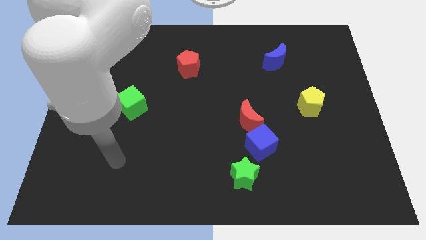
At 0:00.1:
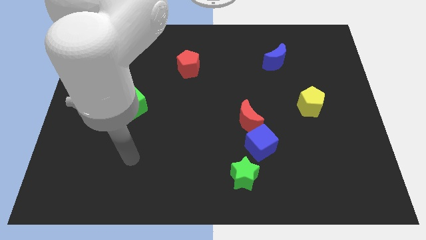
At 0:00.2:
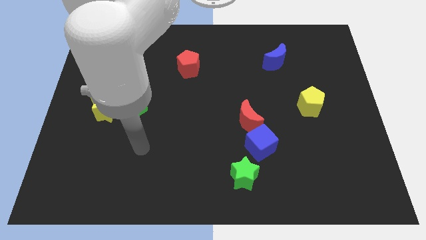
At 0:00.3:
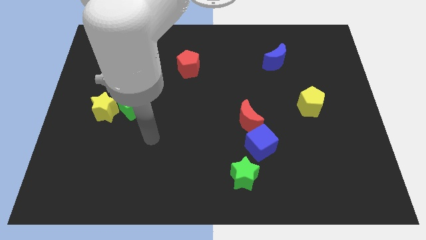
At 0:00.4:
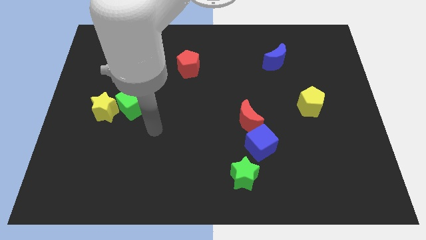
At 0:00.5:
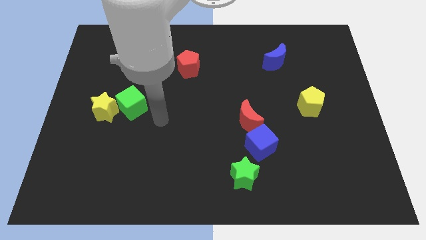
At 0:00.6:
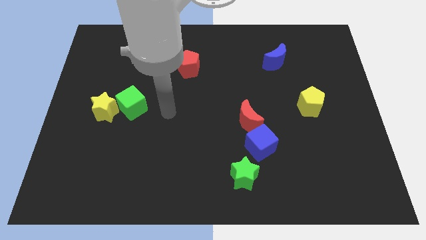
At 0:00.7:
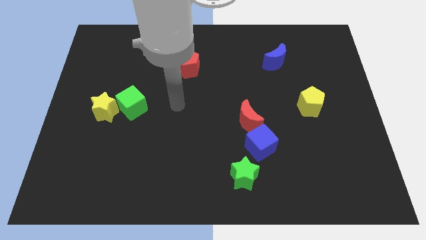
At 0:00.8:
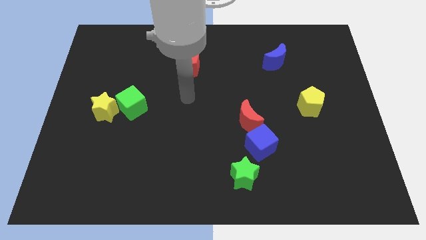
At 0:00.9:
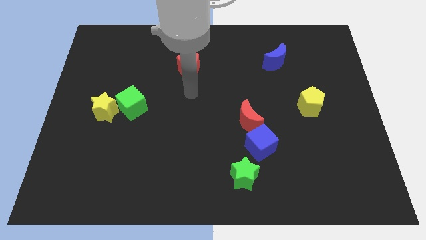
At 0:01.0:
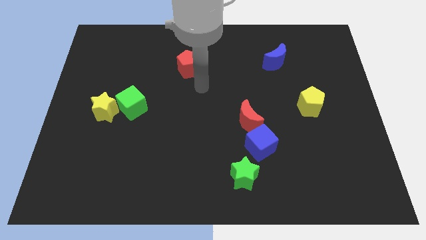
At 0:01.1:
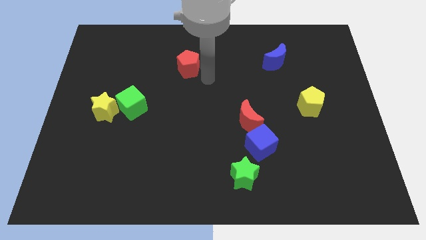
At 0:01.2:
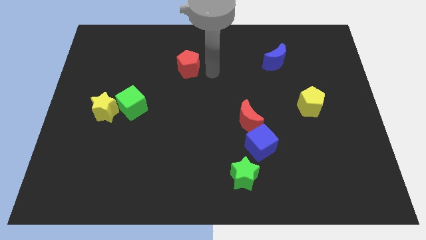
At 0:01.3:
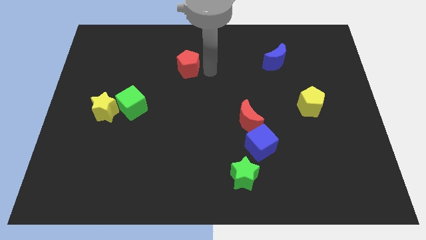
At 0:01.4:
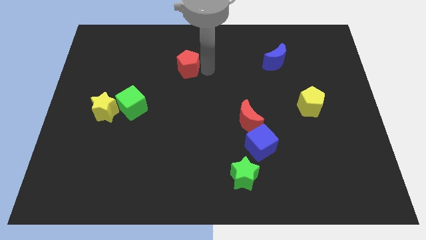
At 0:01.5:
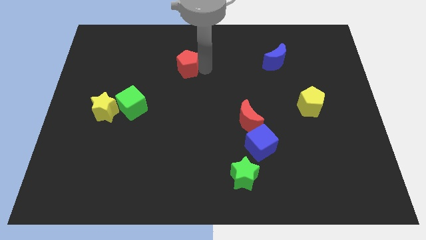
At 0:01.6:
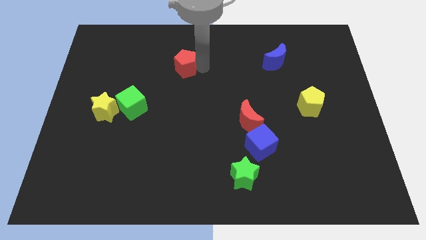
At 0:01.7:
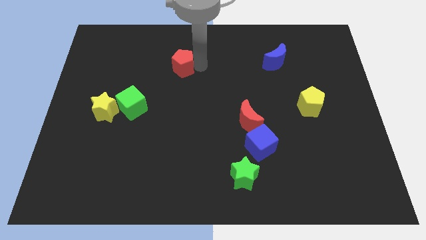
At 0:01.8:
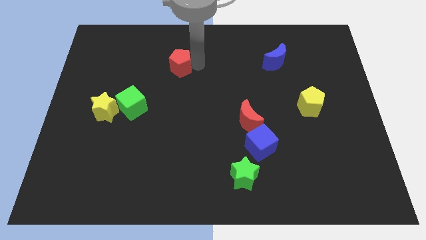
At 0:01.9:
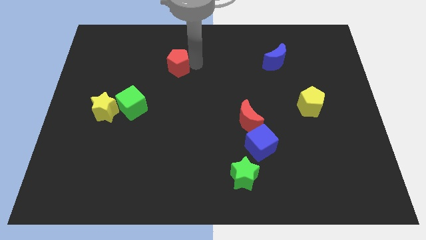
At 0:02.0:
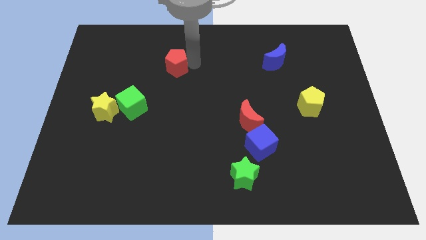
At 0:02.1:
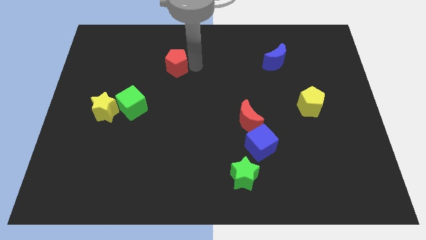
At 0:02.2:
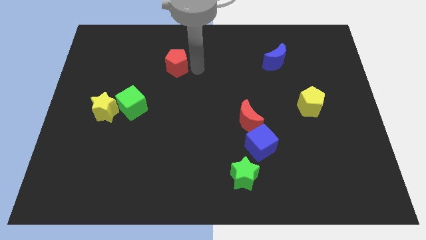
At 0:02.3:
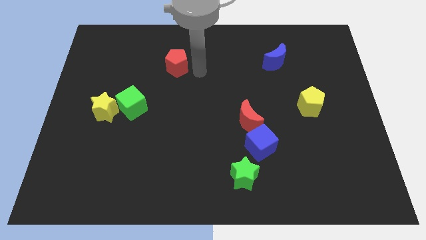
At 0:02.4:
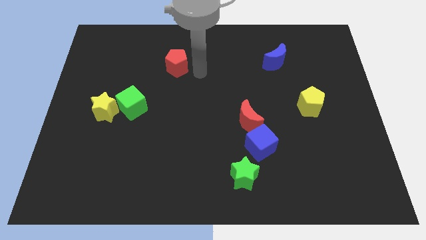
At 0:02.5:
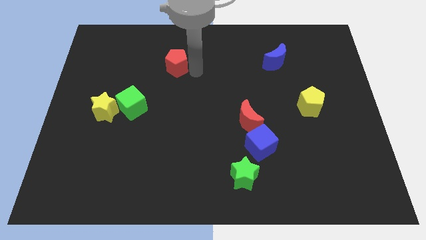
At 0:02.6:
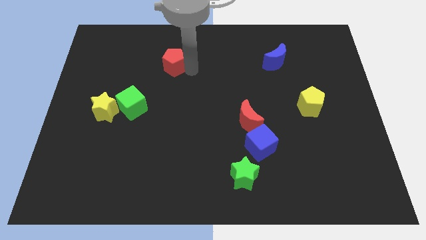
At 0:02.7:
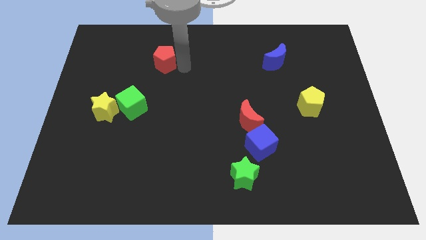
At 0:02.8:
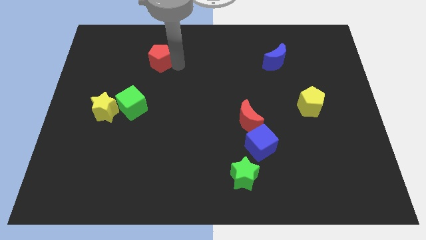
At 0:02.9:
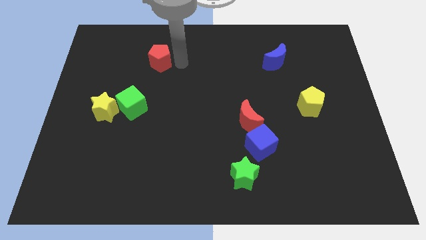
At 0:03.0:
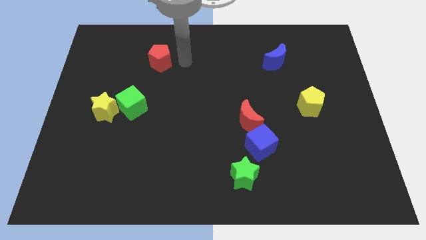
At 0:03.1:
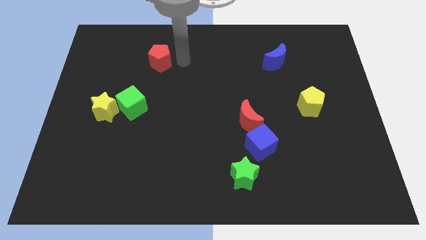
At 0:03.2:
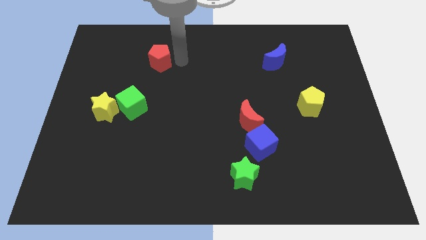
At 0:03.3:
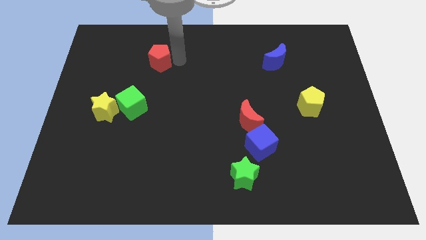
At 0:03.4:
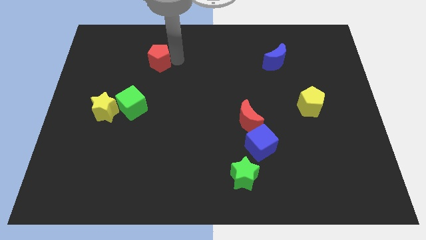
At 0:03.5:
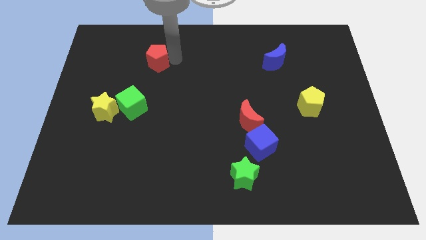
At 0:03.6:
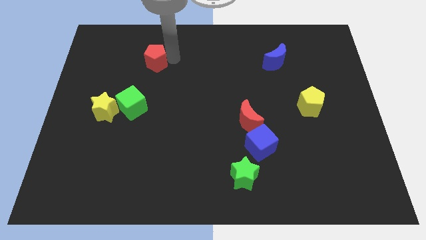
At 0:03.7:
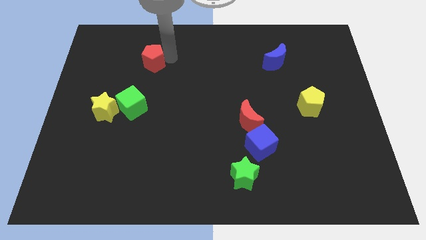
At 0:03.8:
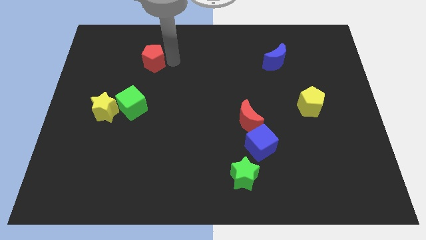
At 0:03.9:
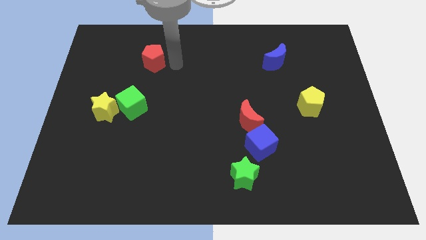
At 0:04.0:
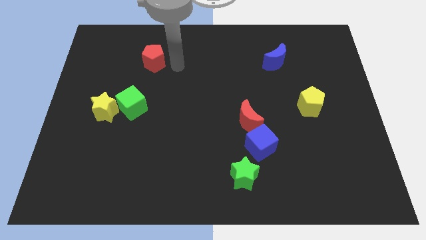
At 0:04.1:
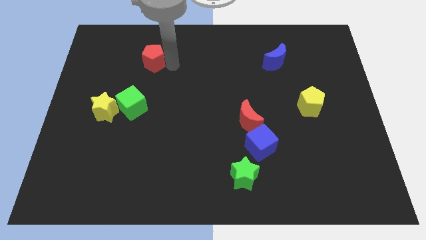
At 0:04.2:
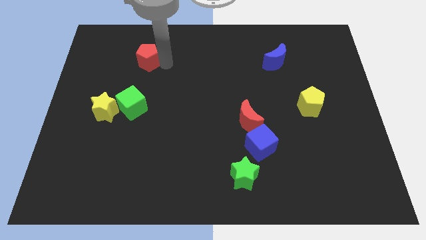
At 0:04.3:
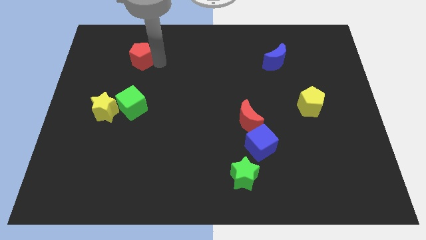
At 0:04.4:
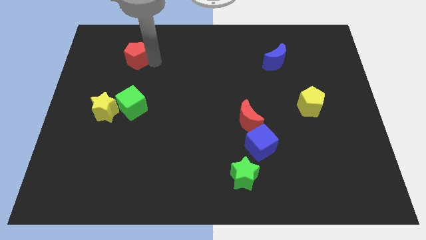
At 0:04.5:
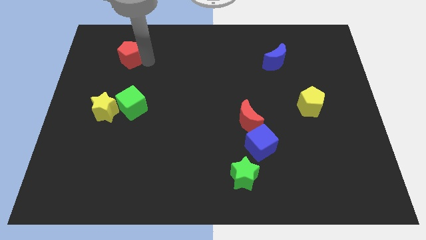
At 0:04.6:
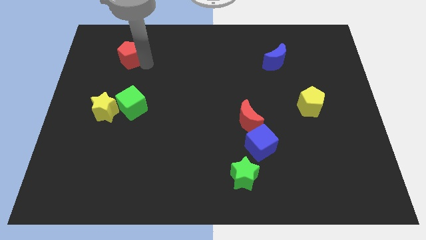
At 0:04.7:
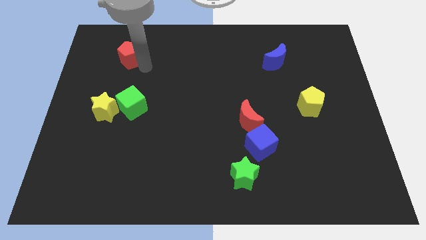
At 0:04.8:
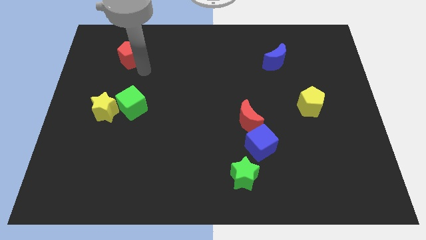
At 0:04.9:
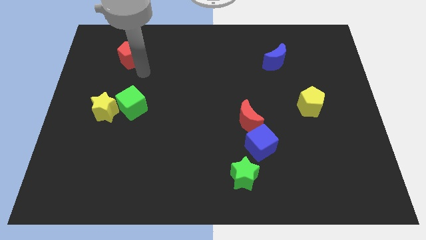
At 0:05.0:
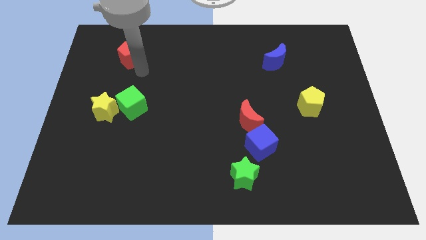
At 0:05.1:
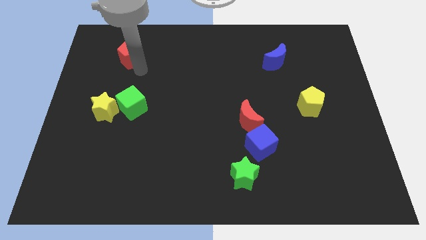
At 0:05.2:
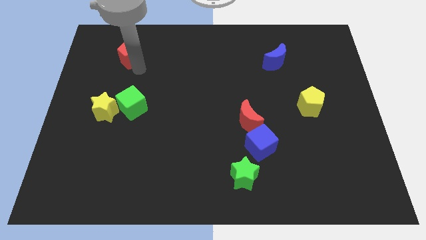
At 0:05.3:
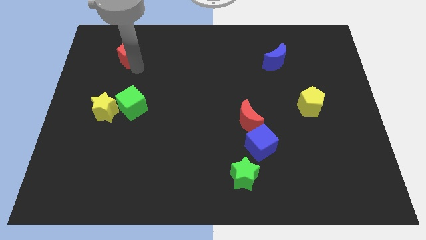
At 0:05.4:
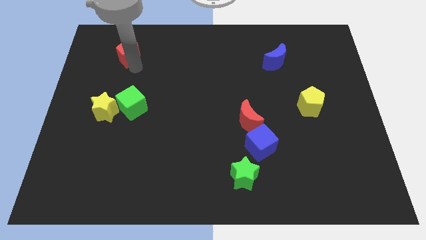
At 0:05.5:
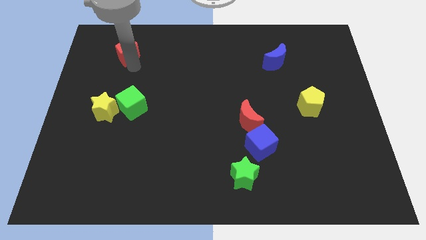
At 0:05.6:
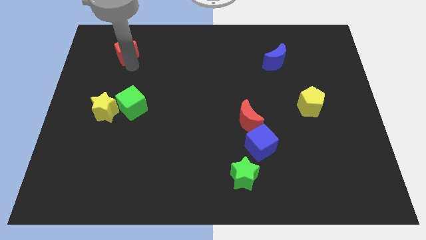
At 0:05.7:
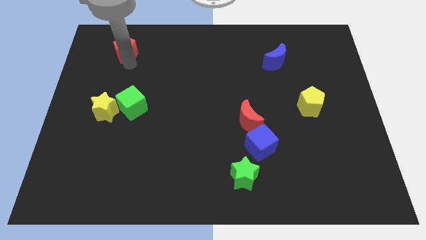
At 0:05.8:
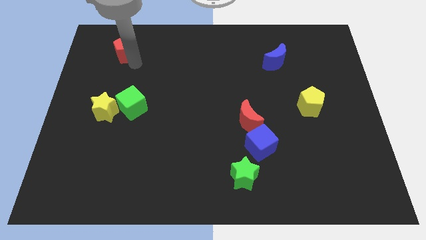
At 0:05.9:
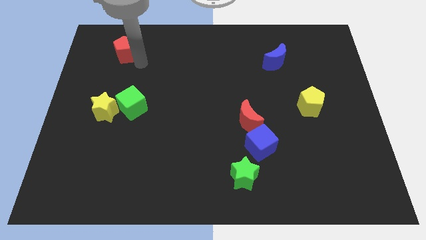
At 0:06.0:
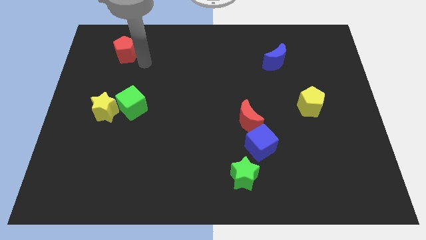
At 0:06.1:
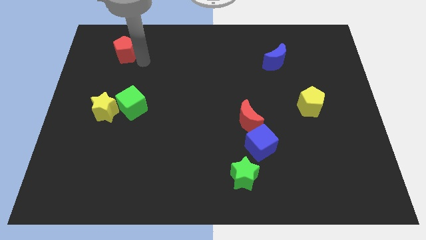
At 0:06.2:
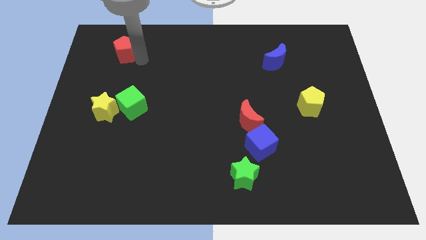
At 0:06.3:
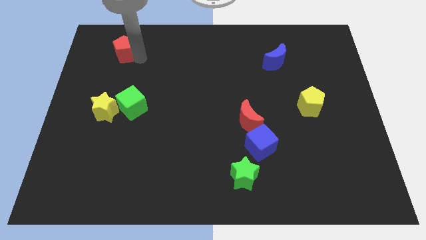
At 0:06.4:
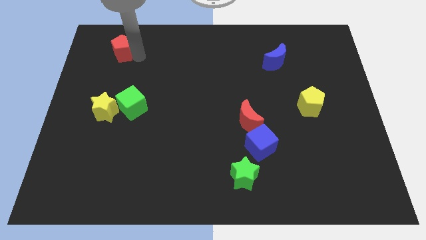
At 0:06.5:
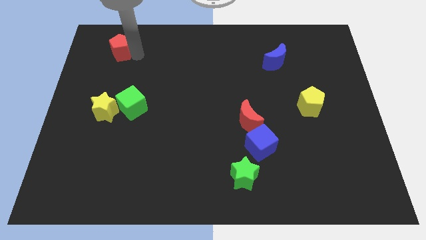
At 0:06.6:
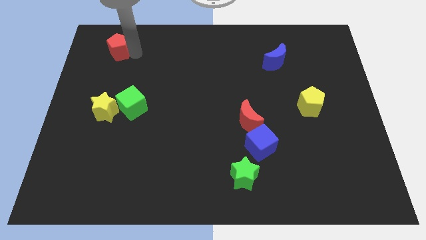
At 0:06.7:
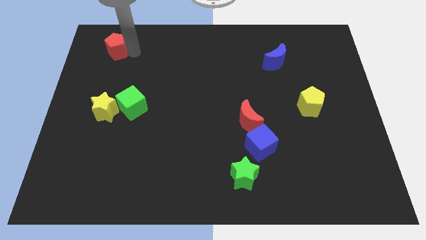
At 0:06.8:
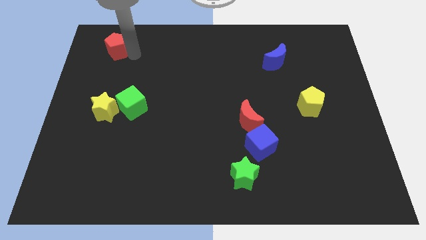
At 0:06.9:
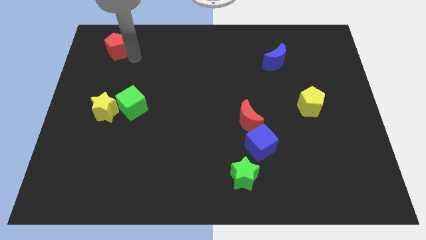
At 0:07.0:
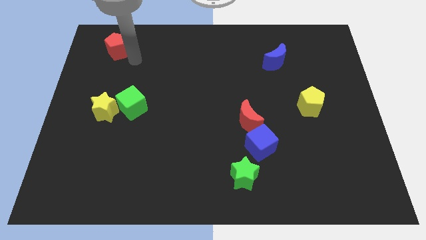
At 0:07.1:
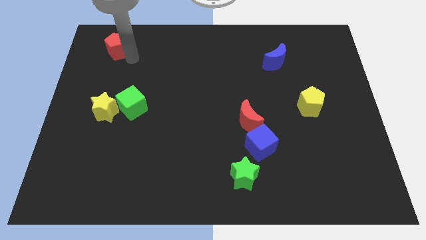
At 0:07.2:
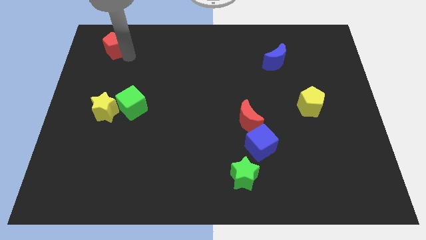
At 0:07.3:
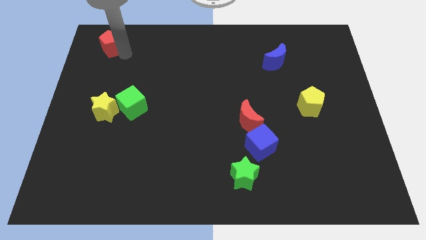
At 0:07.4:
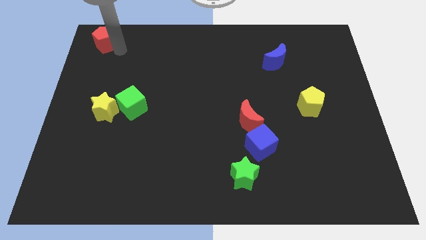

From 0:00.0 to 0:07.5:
push the red pentagon to the upper left corner

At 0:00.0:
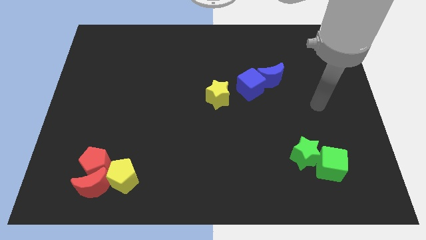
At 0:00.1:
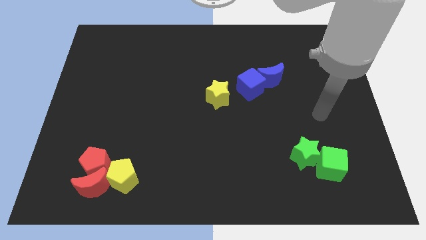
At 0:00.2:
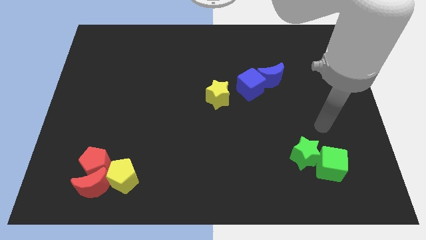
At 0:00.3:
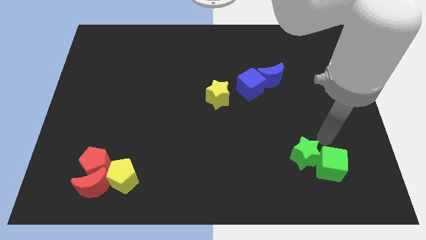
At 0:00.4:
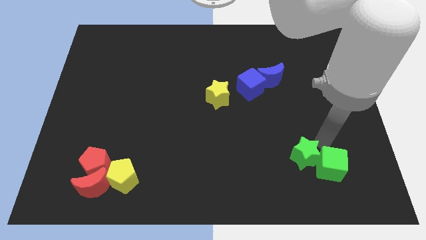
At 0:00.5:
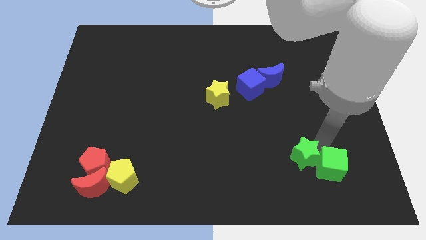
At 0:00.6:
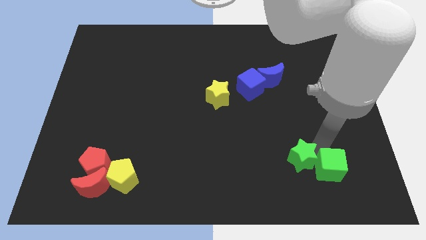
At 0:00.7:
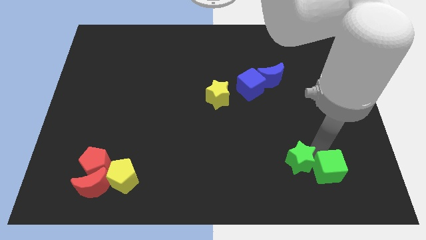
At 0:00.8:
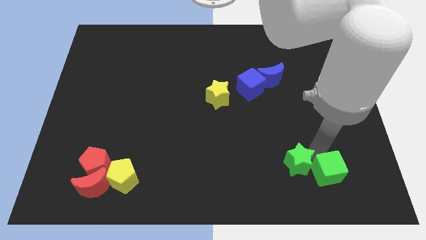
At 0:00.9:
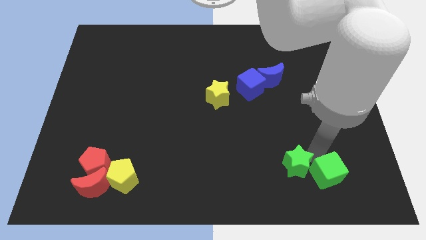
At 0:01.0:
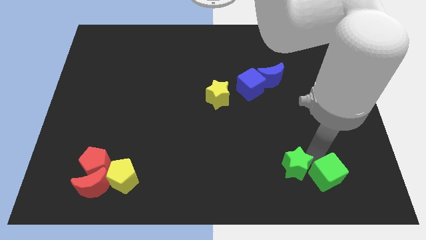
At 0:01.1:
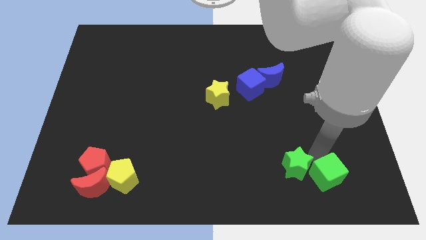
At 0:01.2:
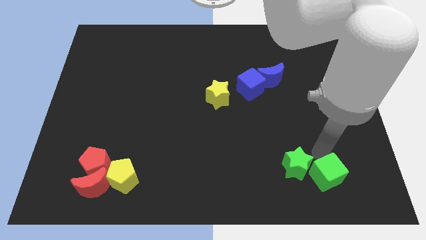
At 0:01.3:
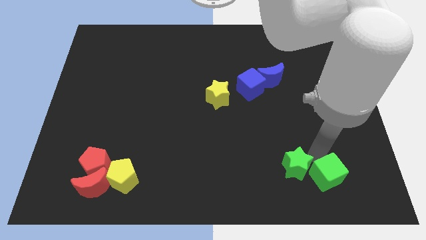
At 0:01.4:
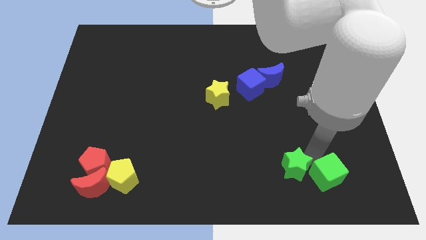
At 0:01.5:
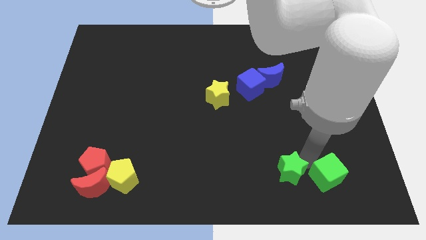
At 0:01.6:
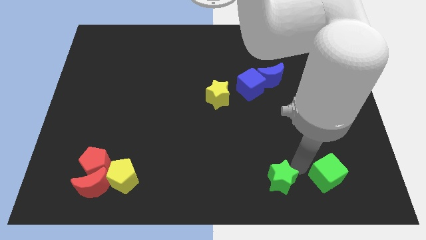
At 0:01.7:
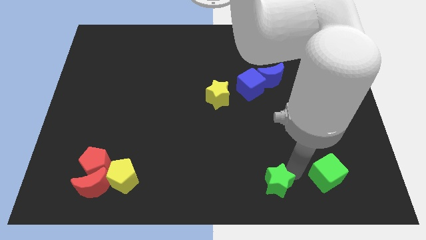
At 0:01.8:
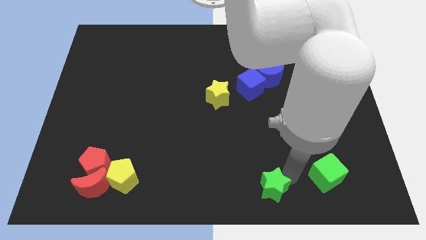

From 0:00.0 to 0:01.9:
move the green star to the bottom side
